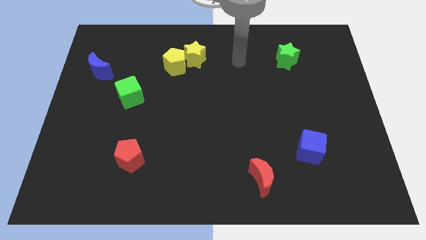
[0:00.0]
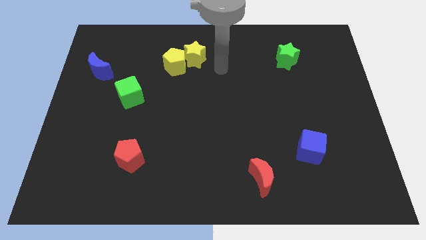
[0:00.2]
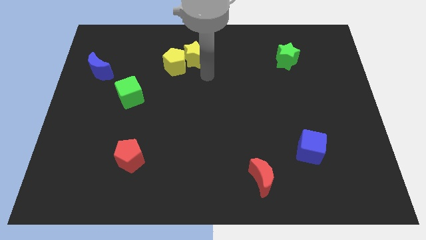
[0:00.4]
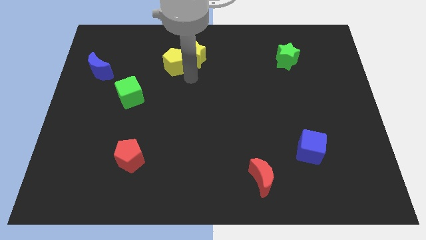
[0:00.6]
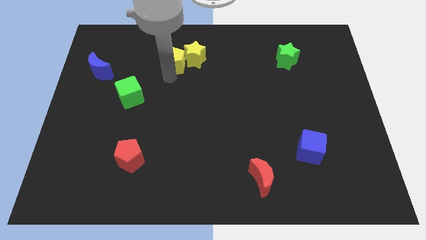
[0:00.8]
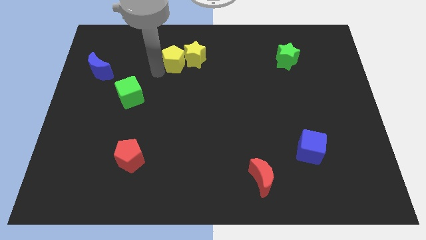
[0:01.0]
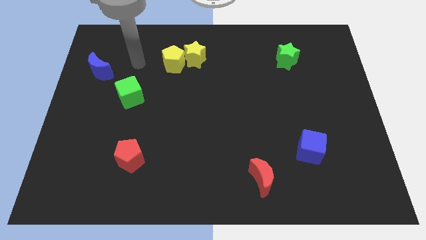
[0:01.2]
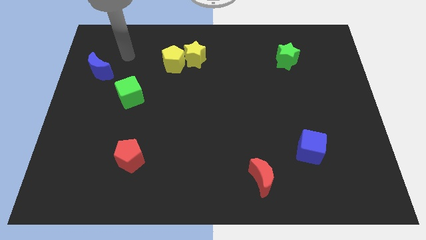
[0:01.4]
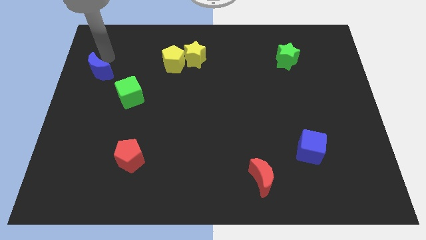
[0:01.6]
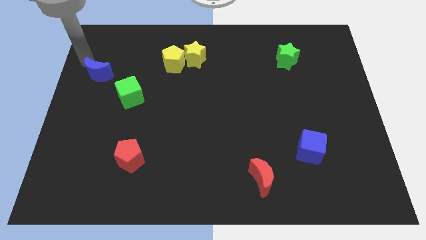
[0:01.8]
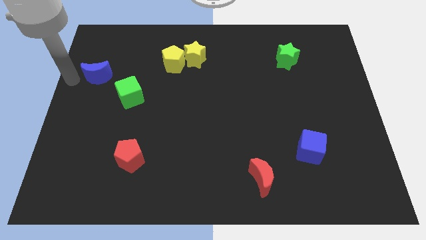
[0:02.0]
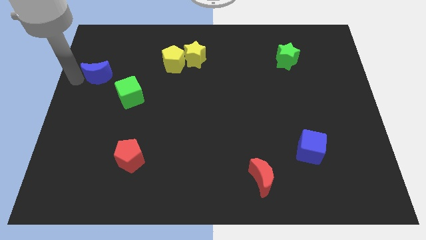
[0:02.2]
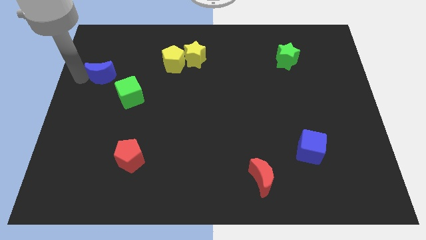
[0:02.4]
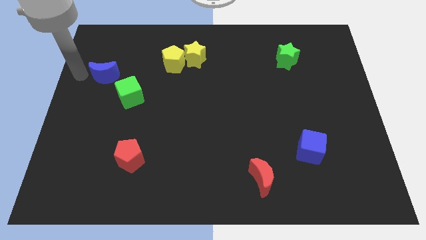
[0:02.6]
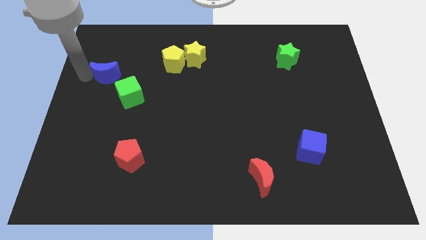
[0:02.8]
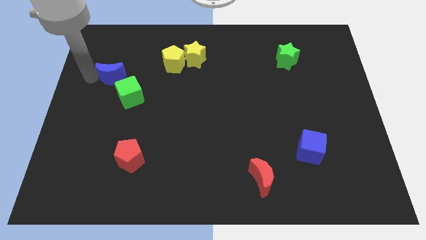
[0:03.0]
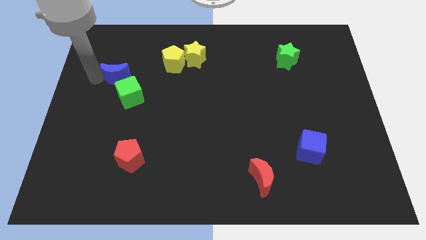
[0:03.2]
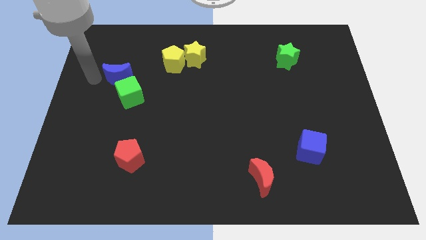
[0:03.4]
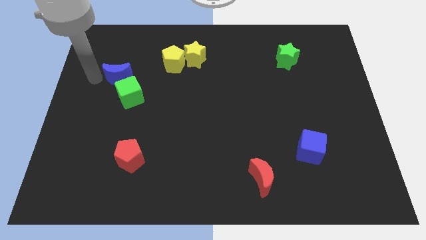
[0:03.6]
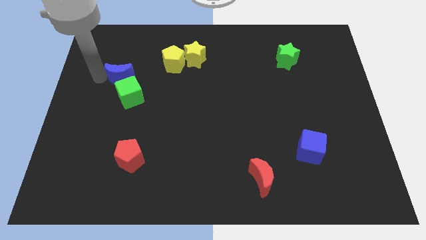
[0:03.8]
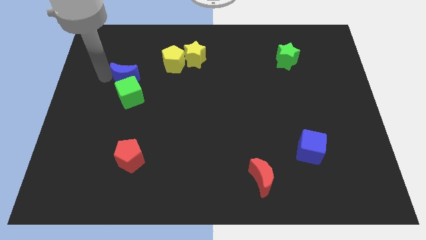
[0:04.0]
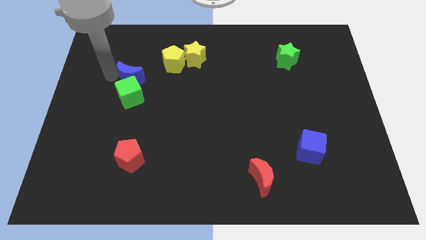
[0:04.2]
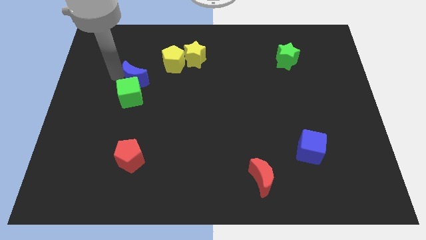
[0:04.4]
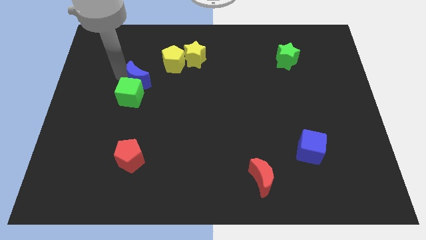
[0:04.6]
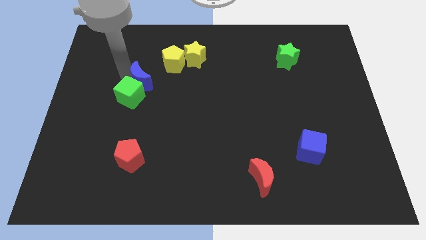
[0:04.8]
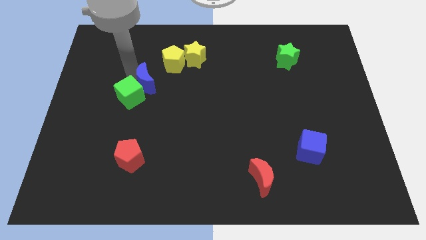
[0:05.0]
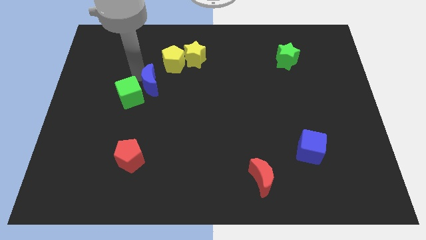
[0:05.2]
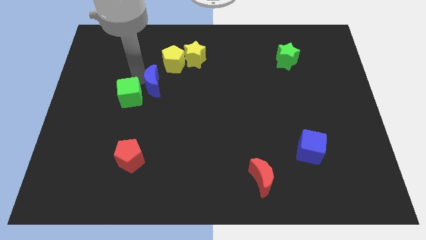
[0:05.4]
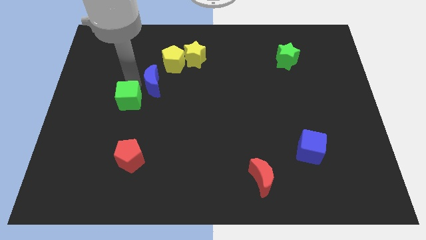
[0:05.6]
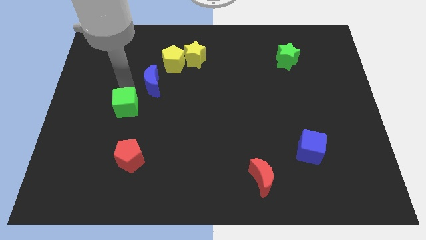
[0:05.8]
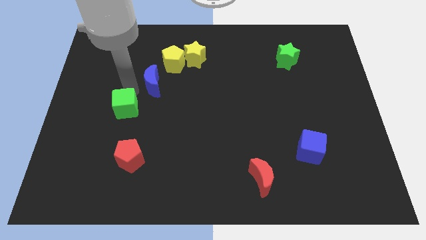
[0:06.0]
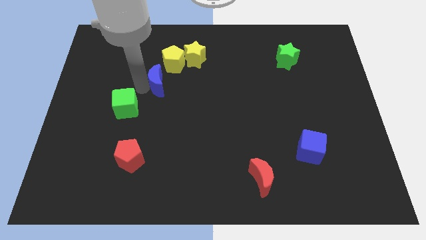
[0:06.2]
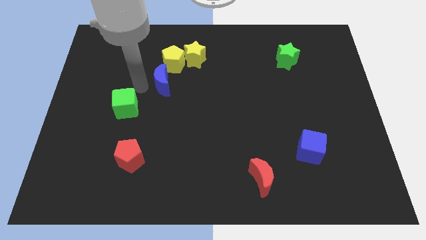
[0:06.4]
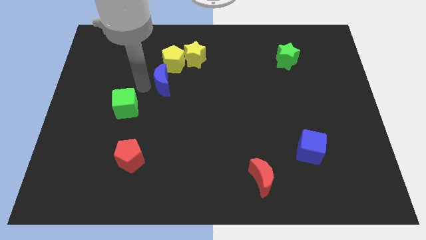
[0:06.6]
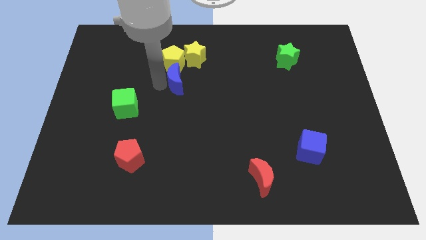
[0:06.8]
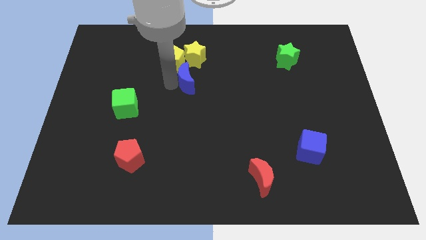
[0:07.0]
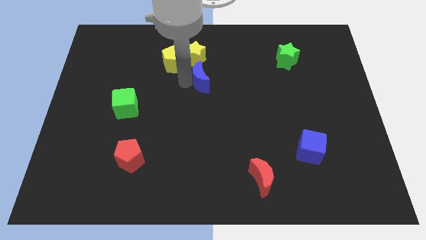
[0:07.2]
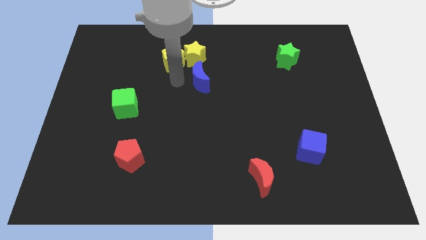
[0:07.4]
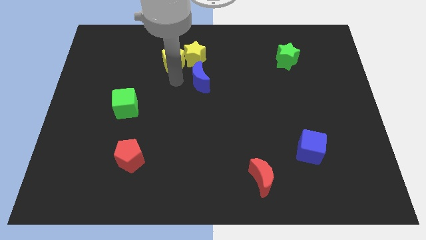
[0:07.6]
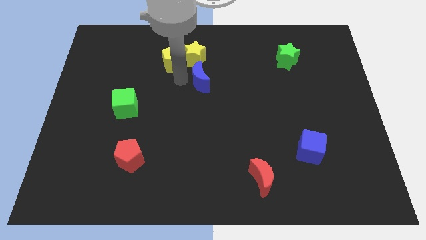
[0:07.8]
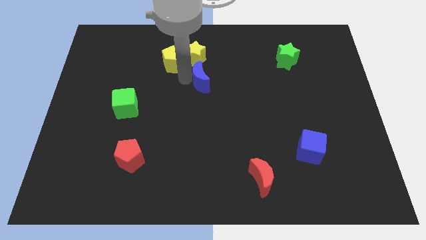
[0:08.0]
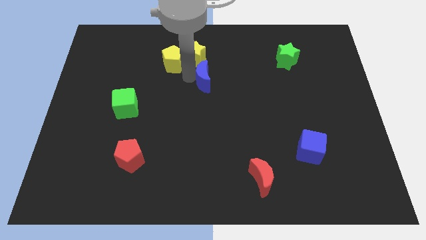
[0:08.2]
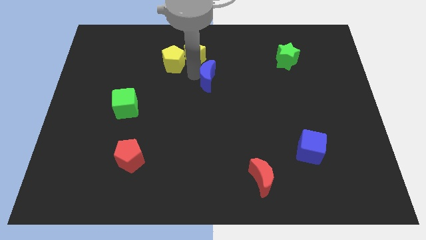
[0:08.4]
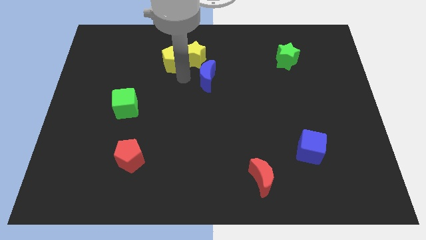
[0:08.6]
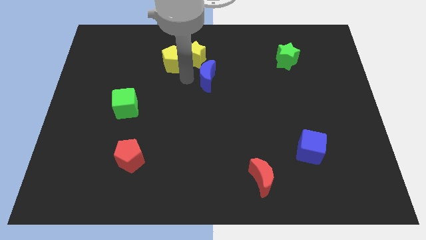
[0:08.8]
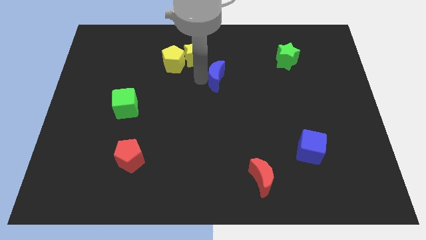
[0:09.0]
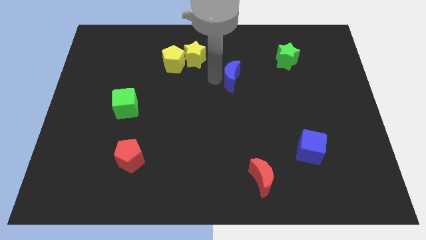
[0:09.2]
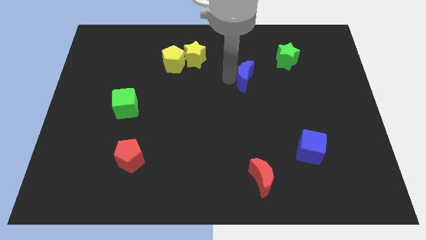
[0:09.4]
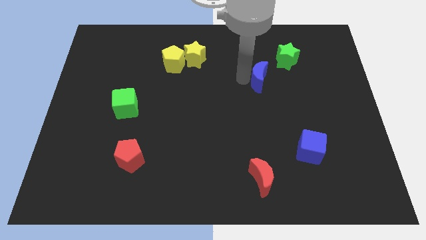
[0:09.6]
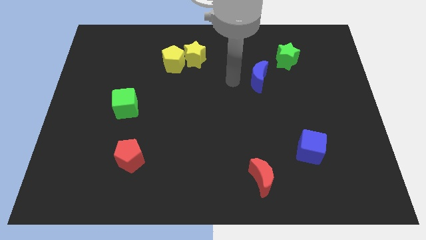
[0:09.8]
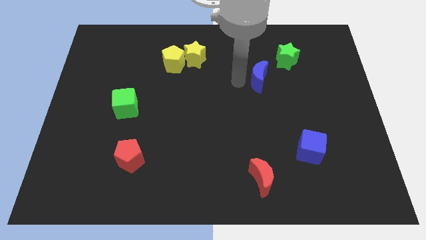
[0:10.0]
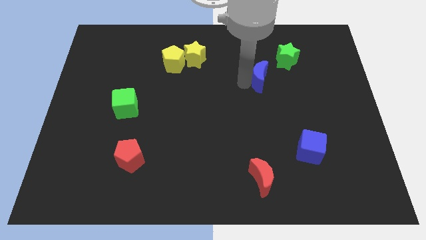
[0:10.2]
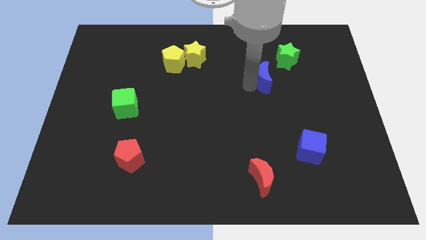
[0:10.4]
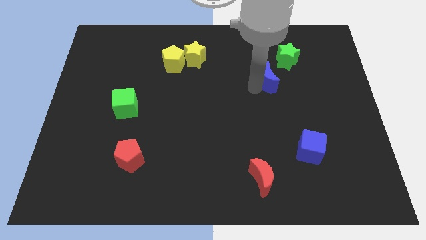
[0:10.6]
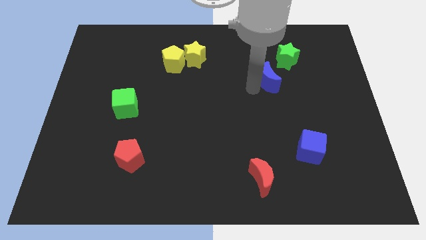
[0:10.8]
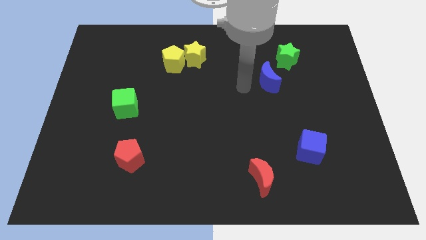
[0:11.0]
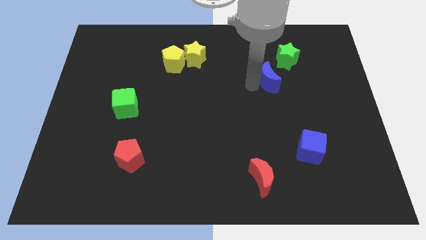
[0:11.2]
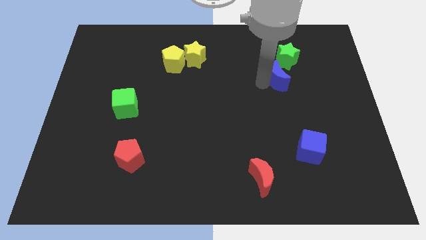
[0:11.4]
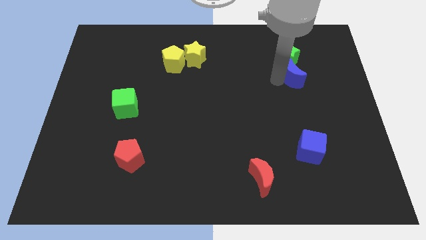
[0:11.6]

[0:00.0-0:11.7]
slide the blue moon to the bottom right of the green star

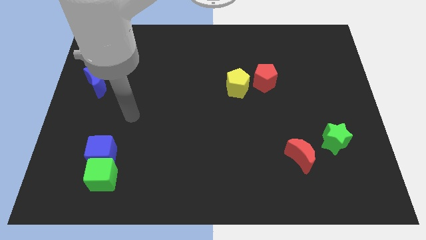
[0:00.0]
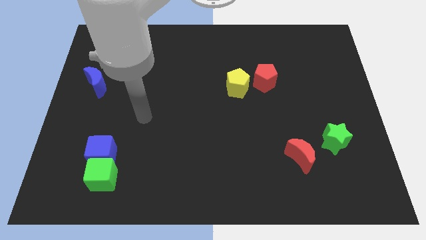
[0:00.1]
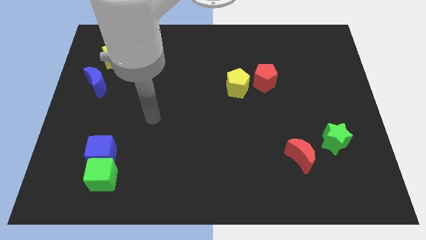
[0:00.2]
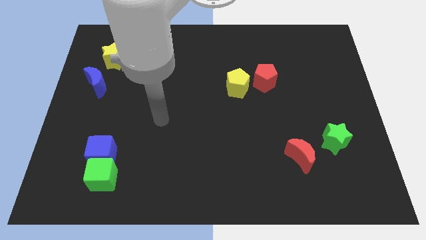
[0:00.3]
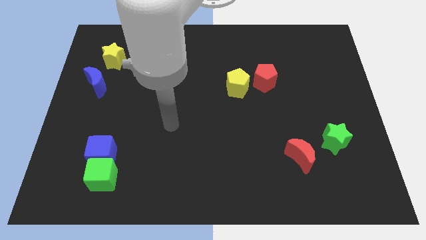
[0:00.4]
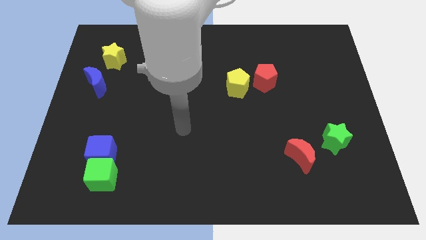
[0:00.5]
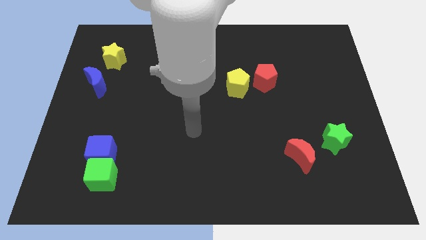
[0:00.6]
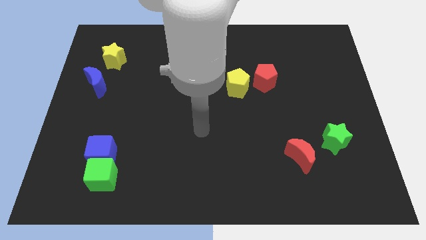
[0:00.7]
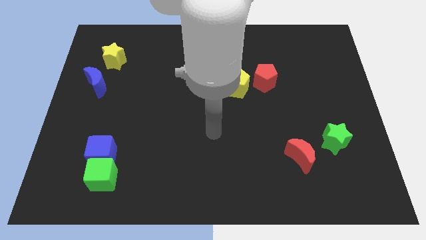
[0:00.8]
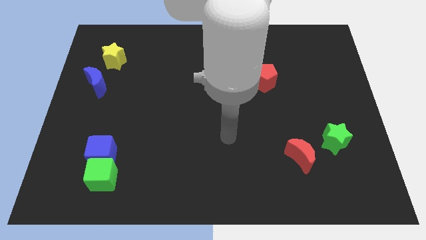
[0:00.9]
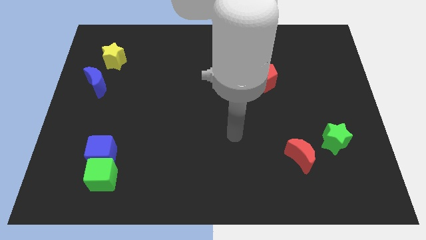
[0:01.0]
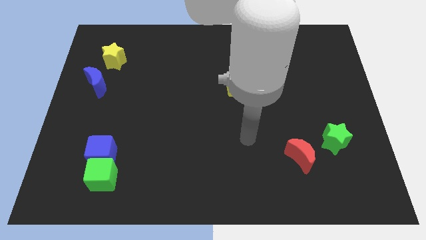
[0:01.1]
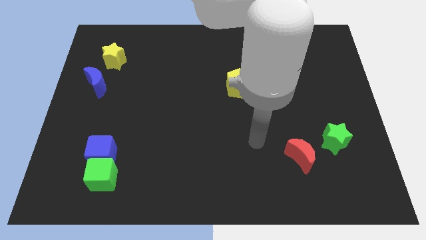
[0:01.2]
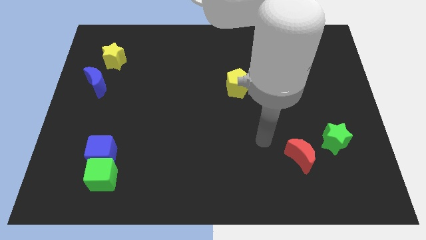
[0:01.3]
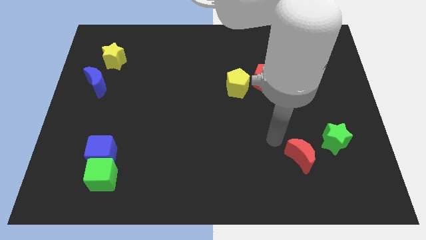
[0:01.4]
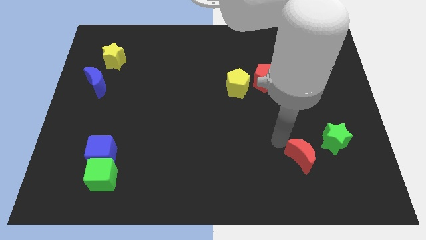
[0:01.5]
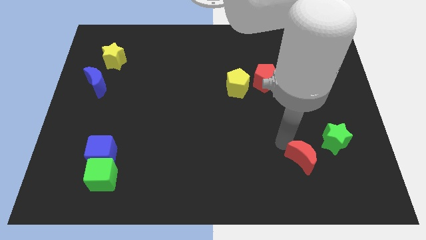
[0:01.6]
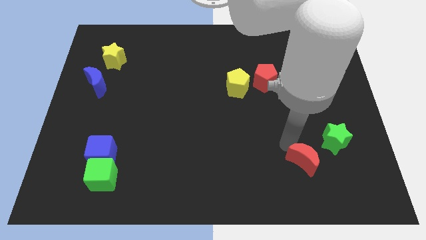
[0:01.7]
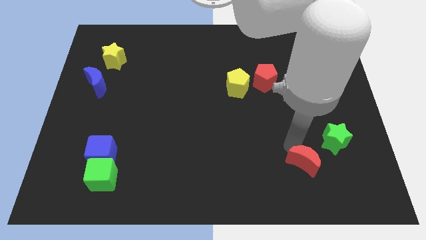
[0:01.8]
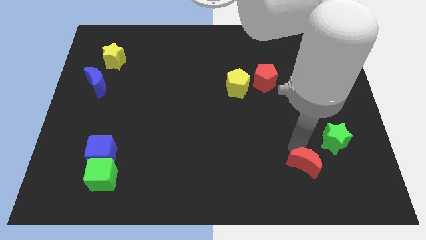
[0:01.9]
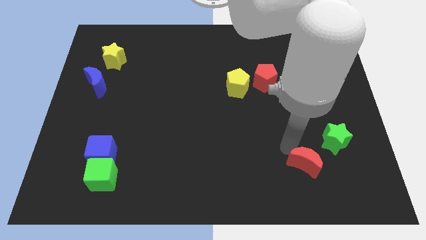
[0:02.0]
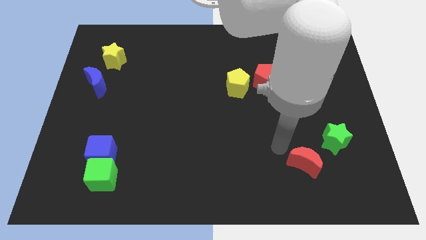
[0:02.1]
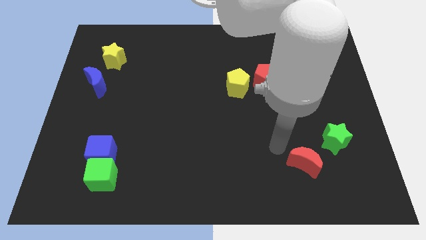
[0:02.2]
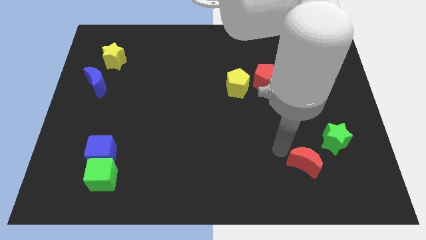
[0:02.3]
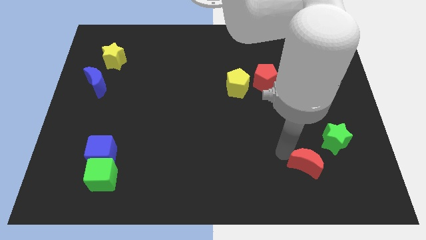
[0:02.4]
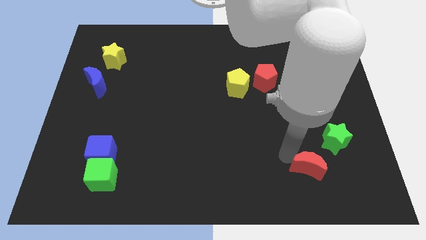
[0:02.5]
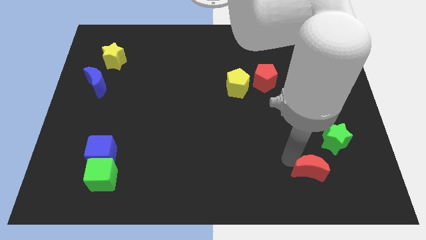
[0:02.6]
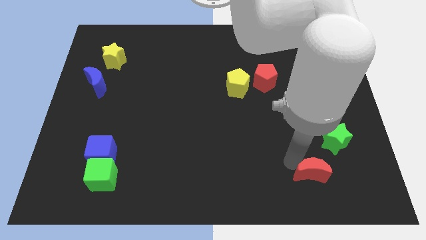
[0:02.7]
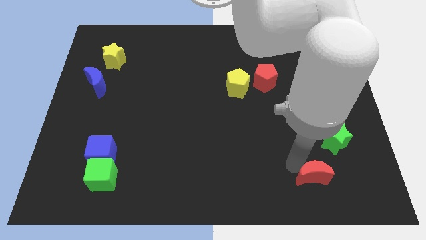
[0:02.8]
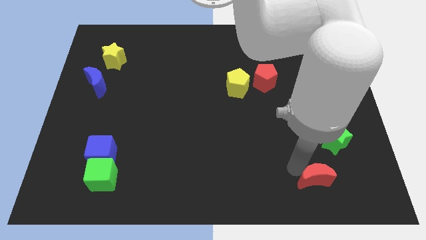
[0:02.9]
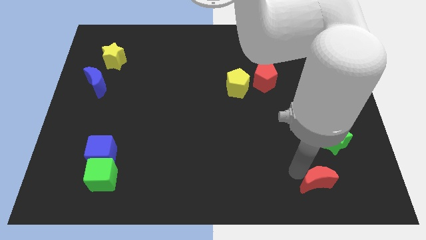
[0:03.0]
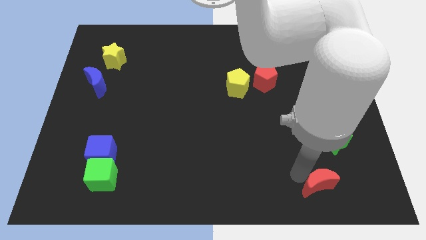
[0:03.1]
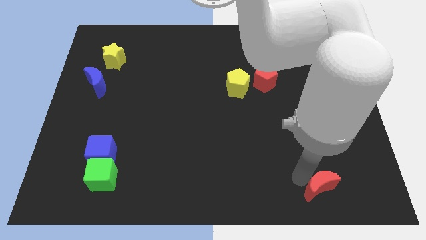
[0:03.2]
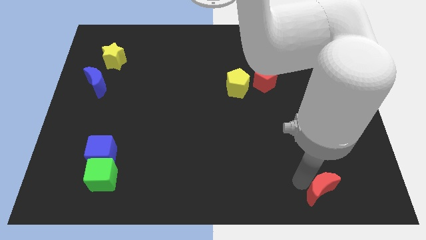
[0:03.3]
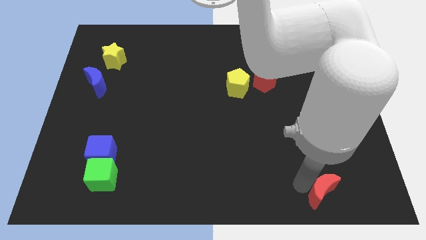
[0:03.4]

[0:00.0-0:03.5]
move the red moon to the bottom of the green star
